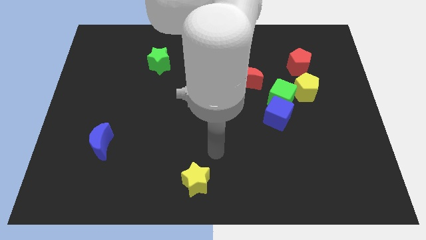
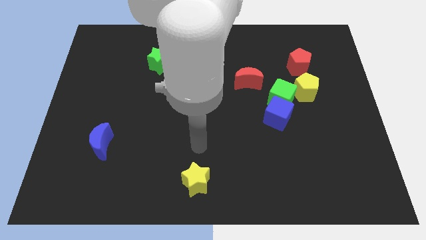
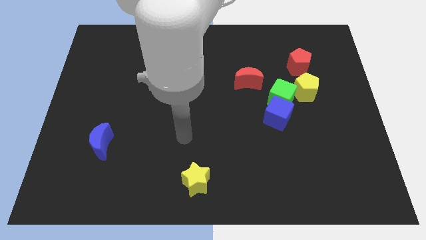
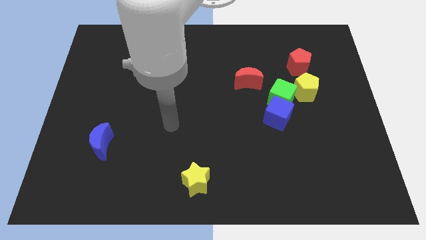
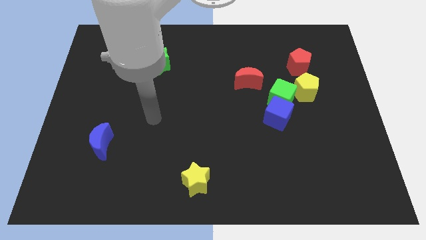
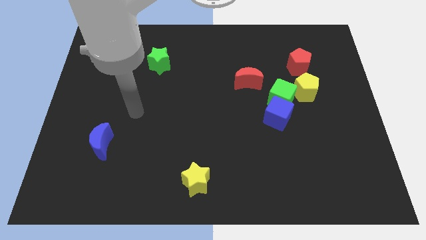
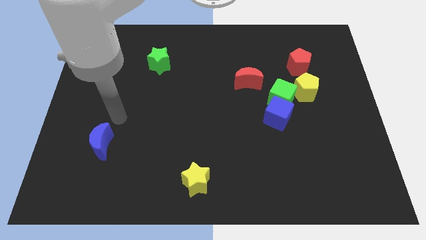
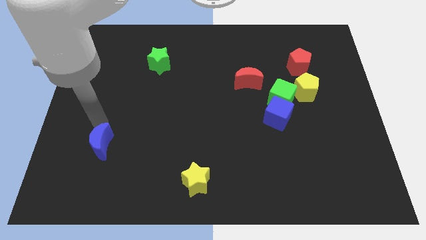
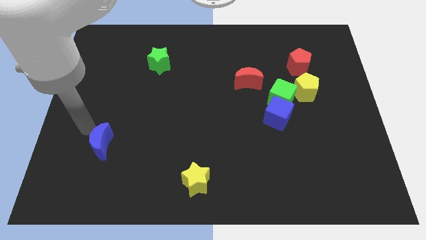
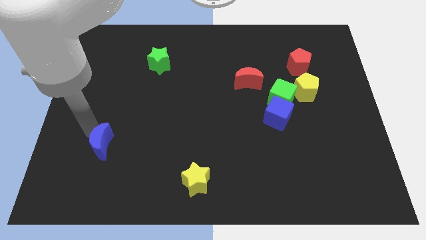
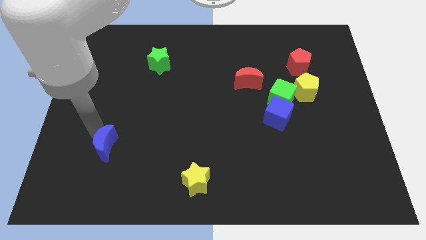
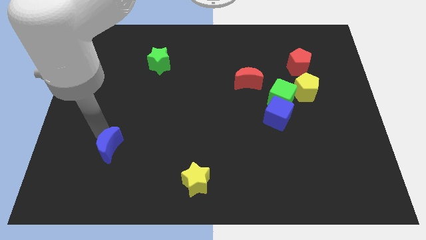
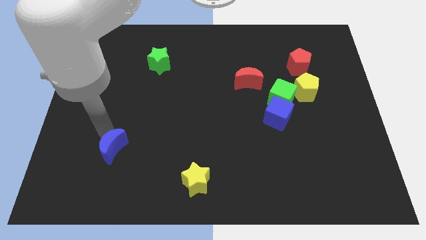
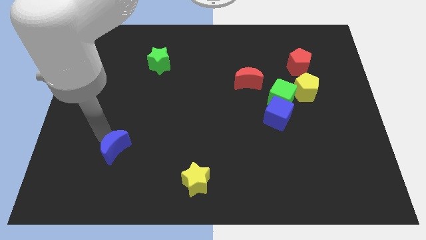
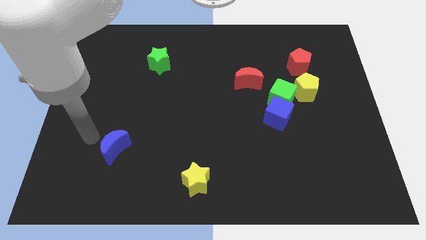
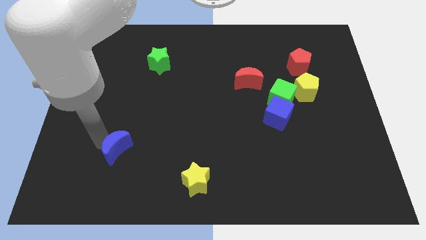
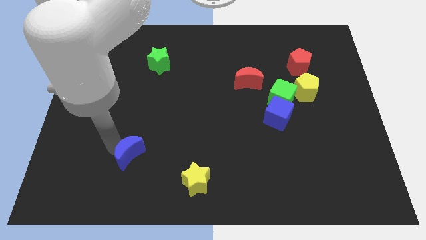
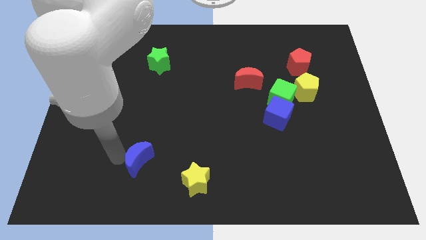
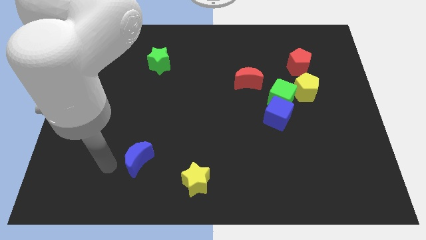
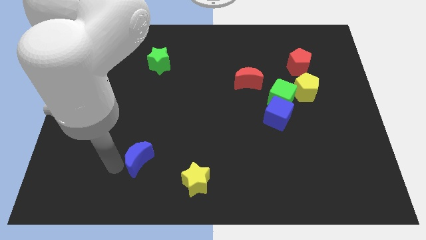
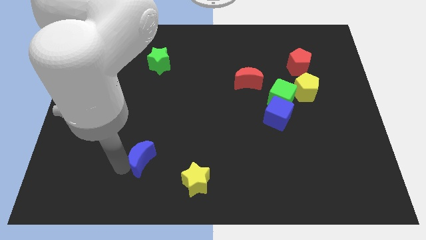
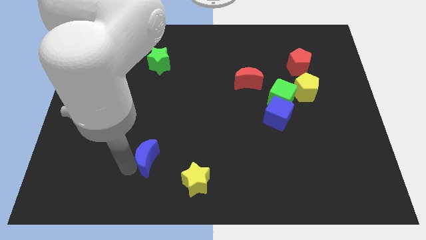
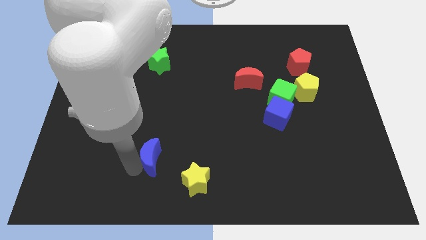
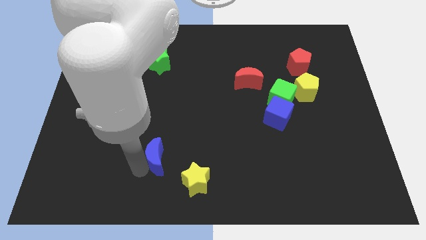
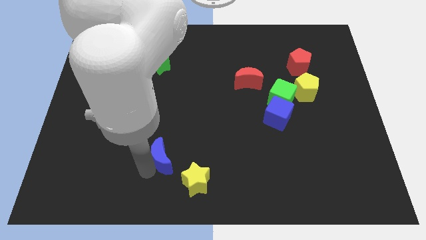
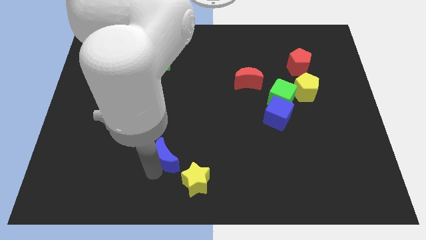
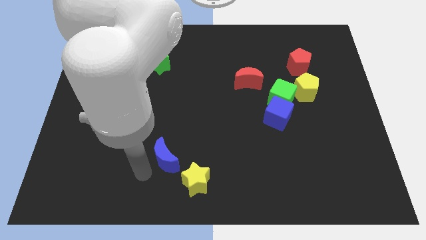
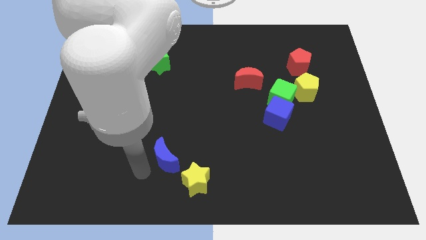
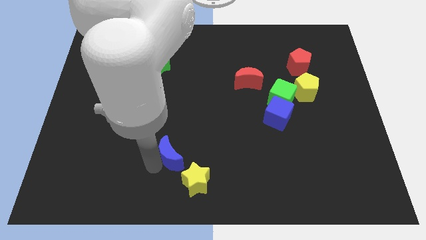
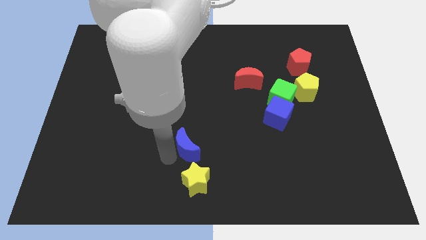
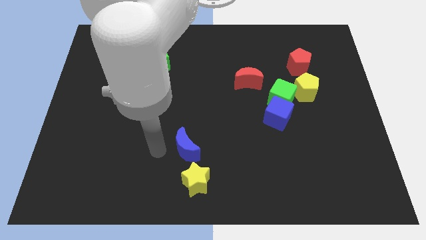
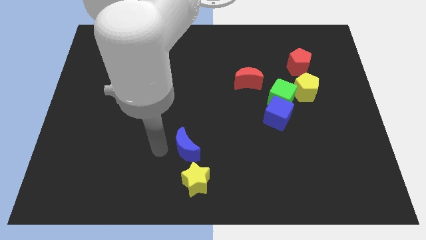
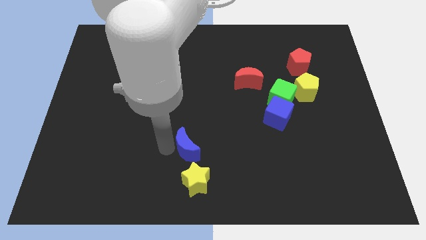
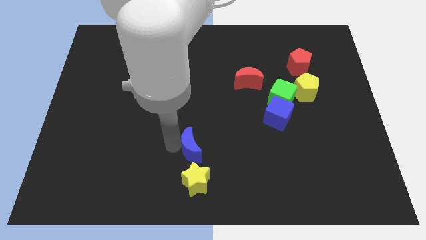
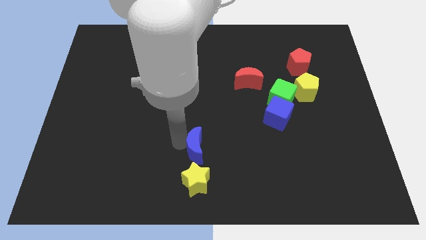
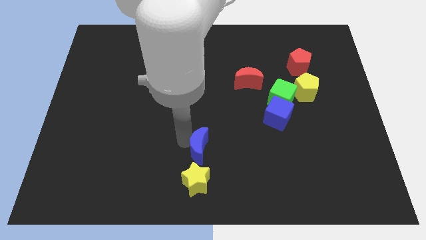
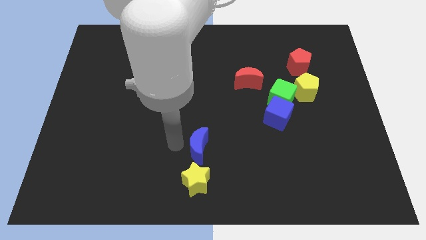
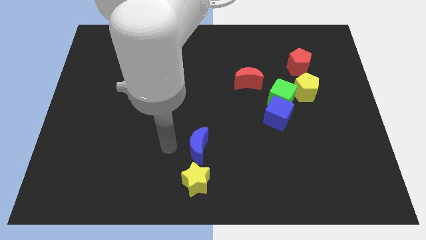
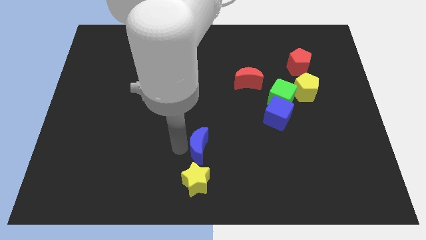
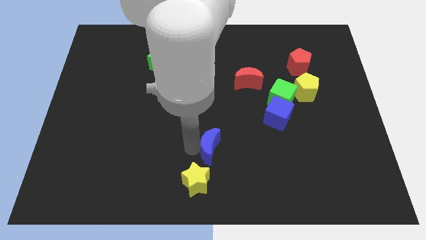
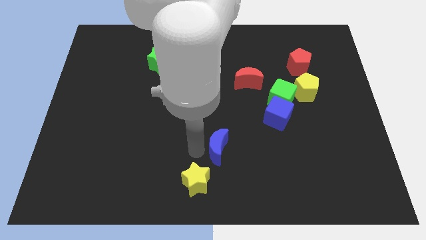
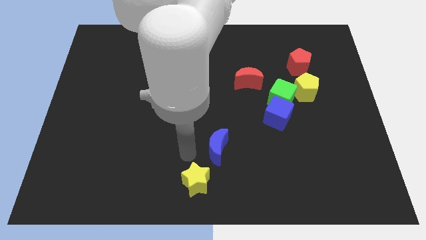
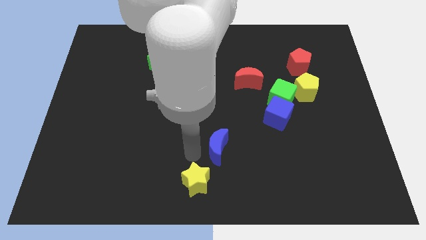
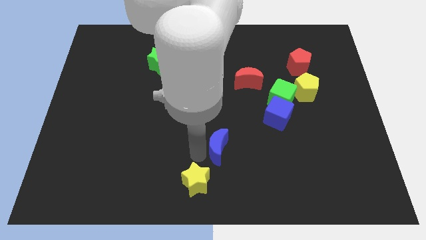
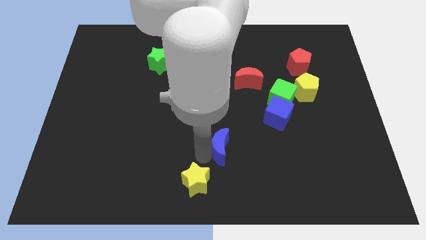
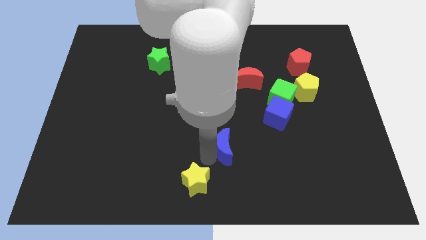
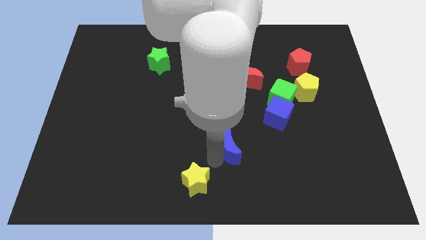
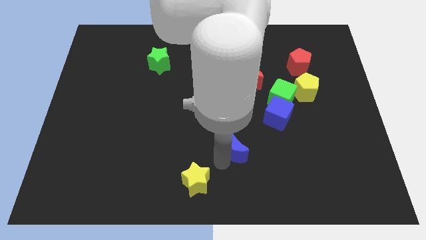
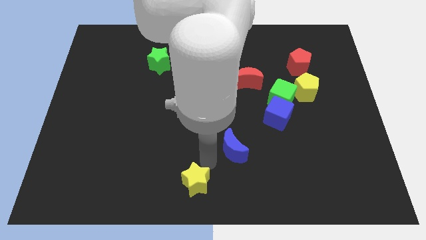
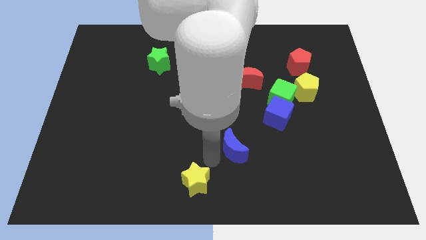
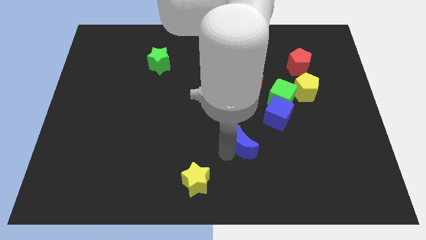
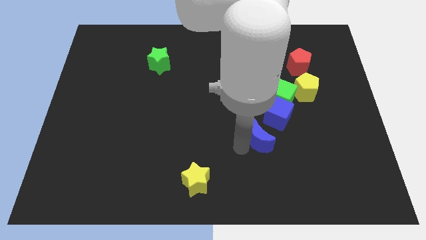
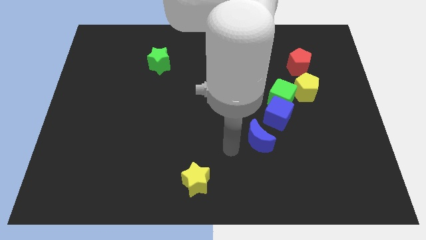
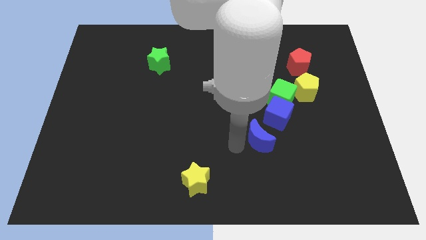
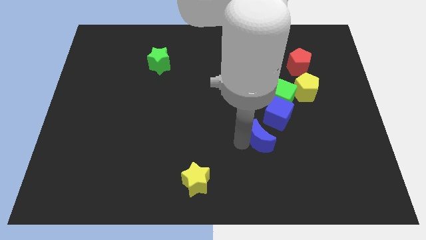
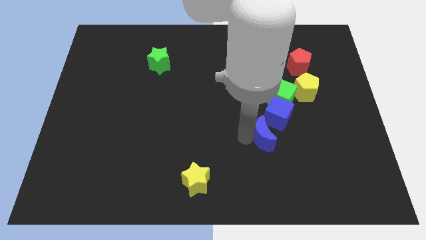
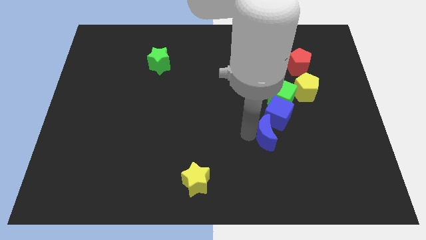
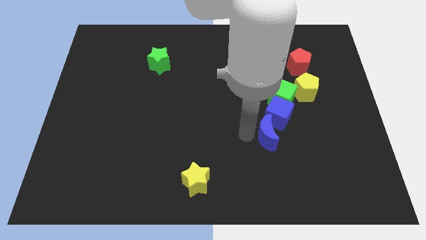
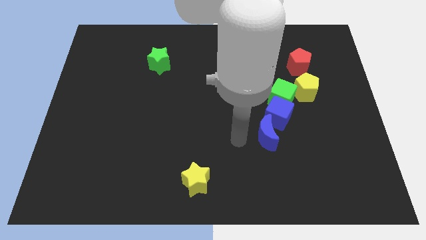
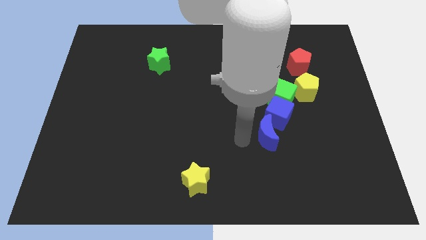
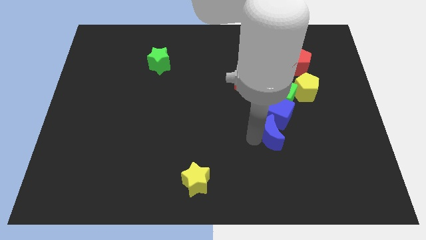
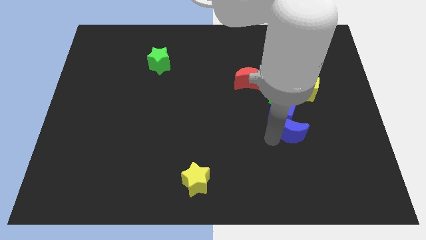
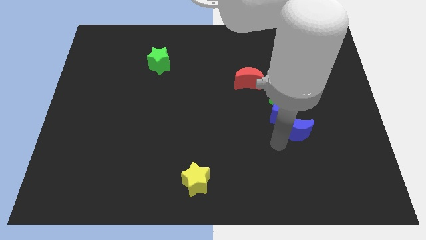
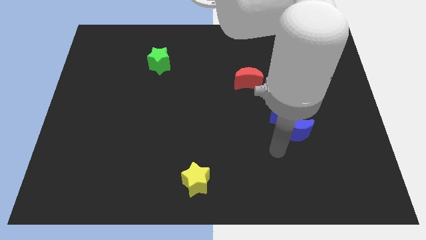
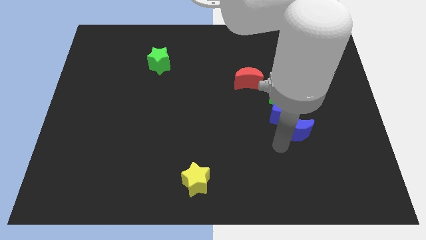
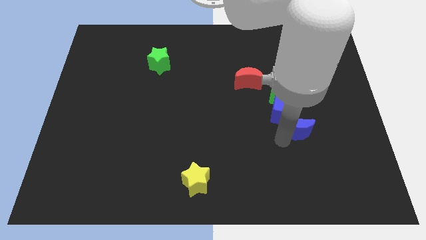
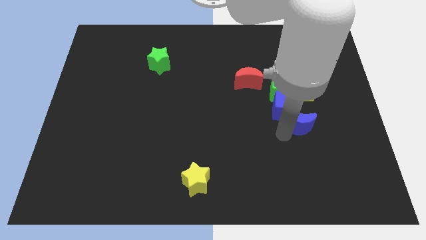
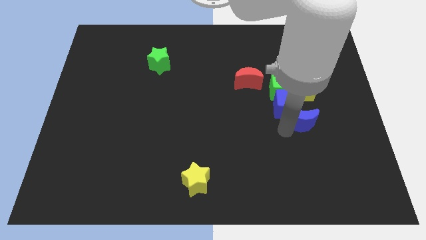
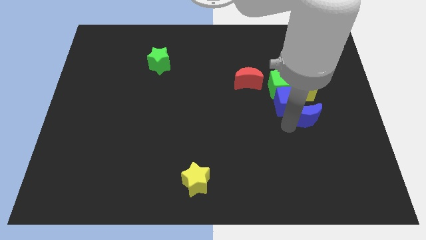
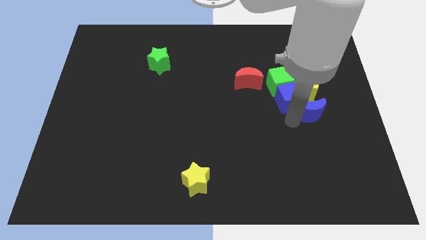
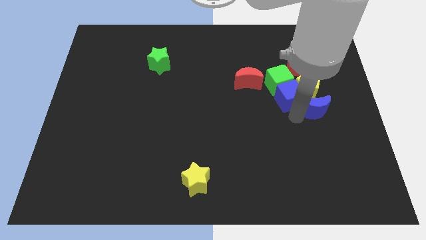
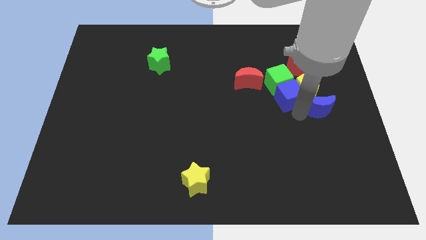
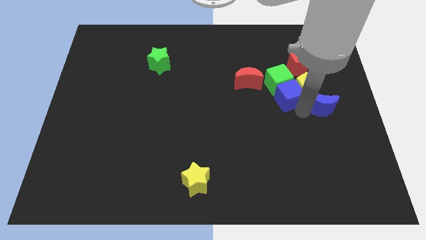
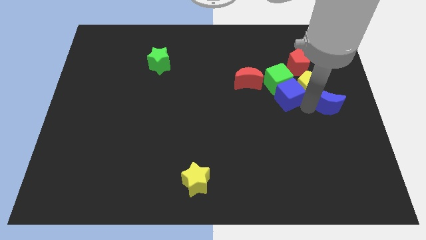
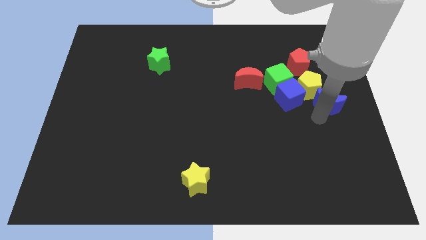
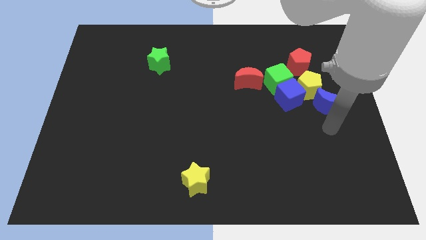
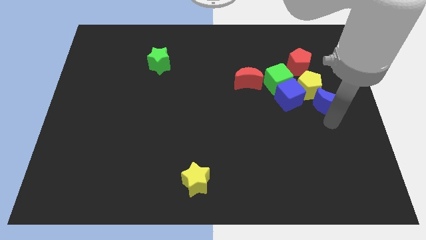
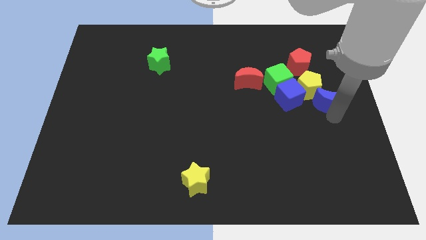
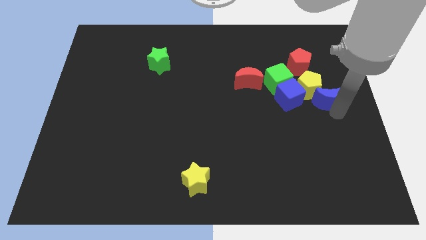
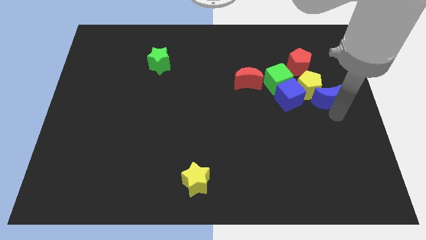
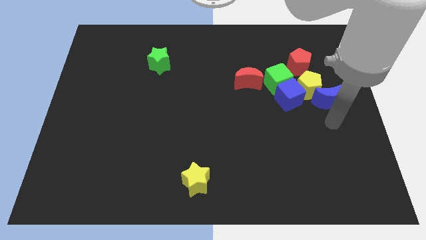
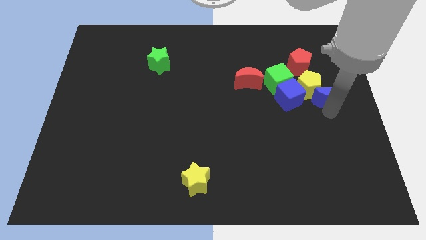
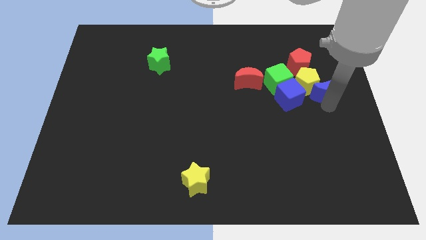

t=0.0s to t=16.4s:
move the blue moon to the bottom right side of the red pentagon
